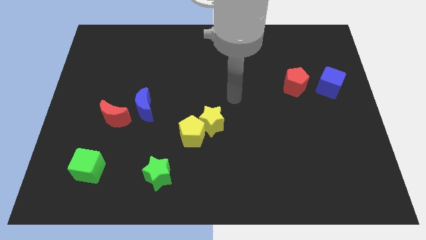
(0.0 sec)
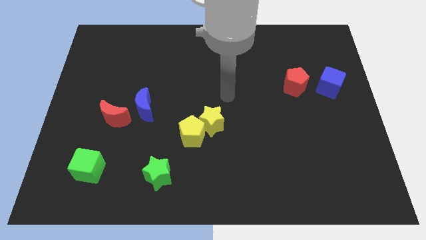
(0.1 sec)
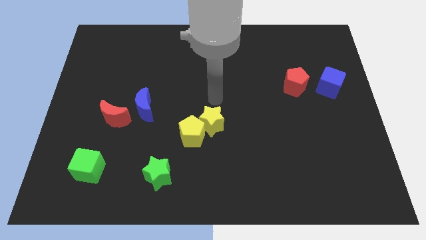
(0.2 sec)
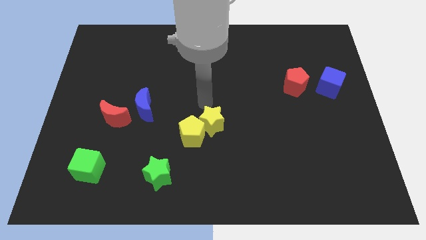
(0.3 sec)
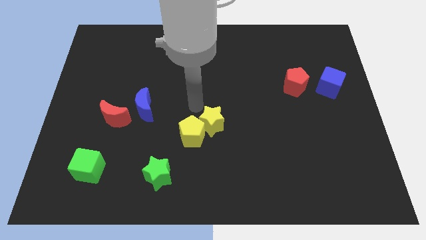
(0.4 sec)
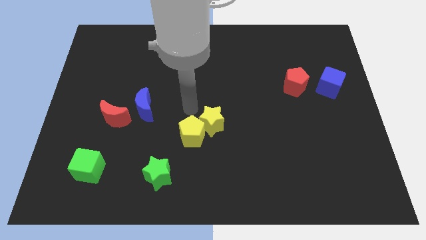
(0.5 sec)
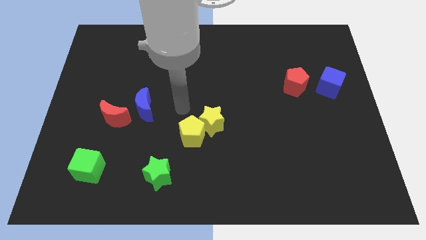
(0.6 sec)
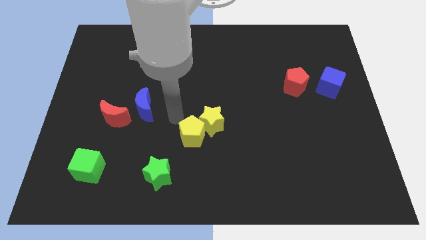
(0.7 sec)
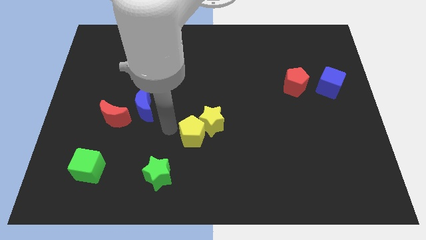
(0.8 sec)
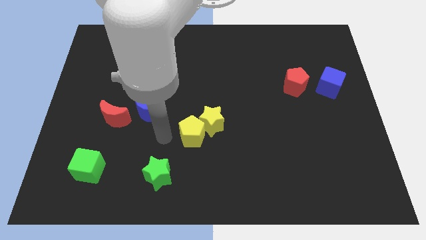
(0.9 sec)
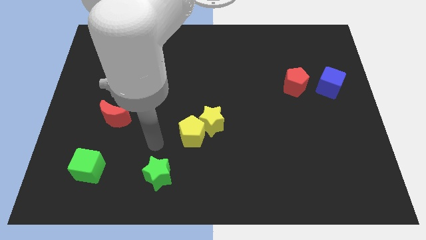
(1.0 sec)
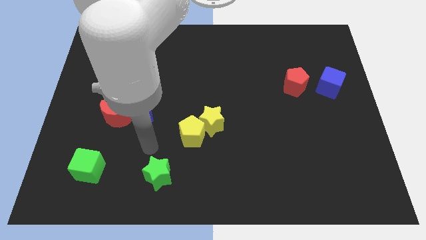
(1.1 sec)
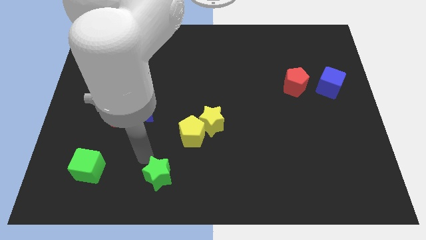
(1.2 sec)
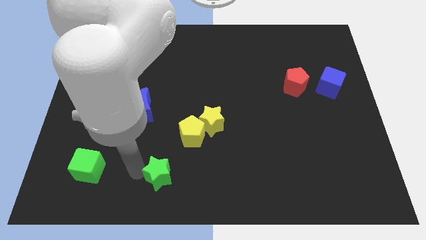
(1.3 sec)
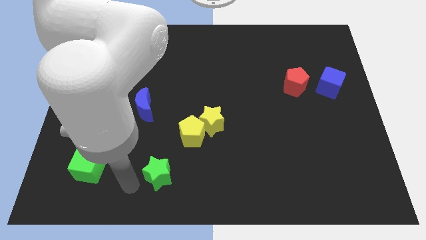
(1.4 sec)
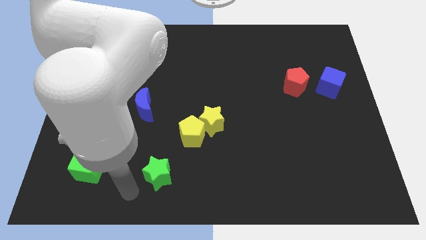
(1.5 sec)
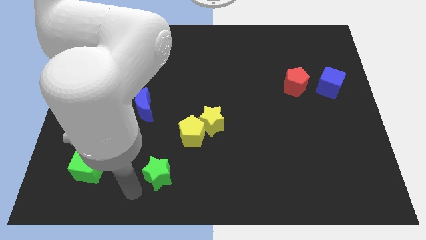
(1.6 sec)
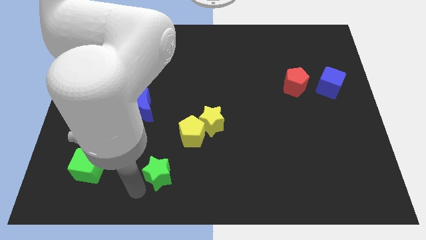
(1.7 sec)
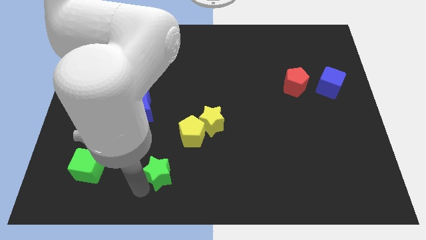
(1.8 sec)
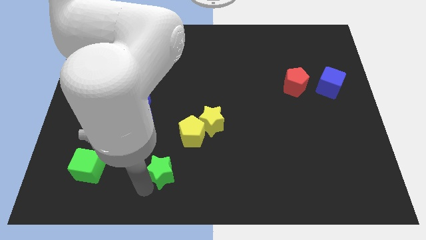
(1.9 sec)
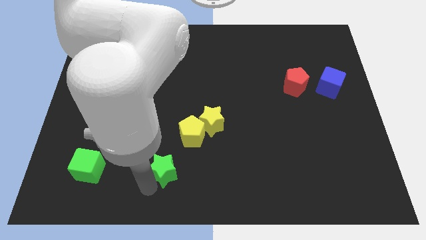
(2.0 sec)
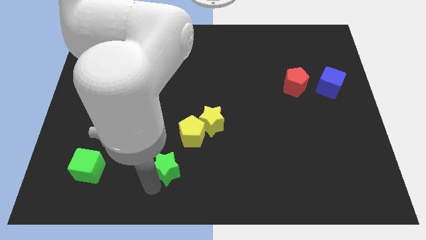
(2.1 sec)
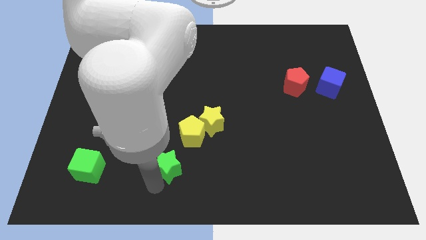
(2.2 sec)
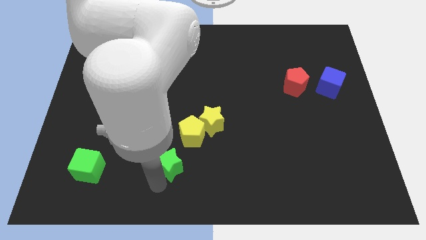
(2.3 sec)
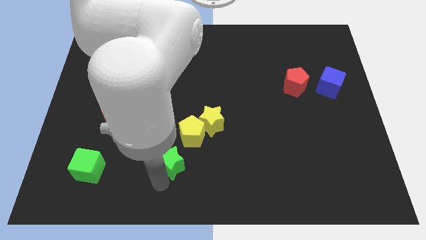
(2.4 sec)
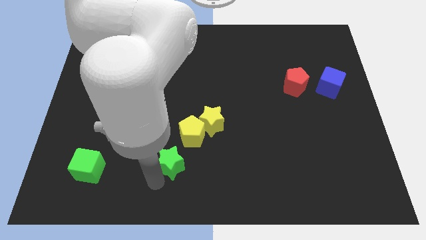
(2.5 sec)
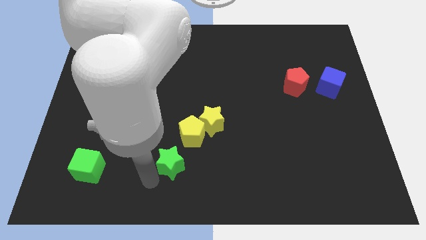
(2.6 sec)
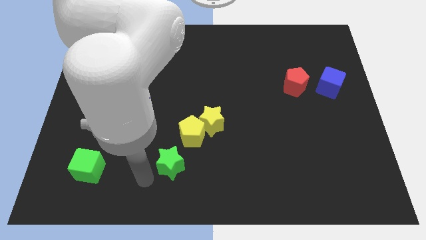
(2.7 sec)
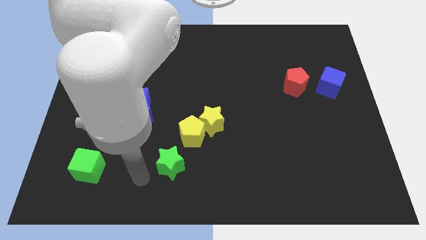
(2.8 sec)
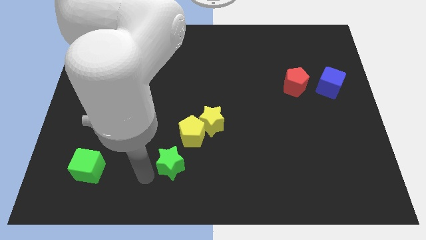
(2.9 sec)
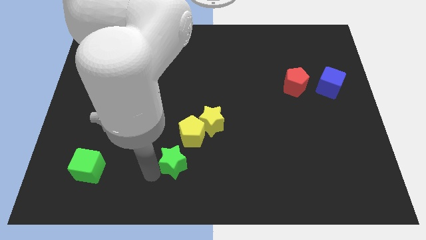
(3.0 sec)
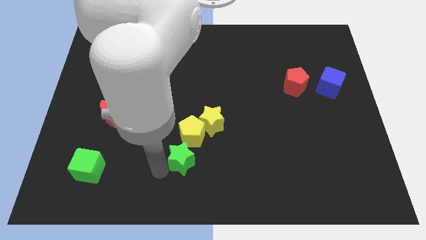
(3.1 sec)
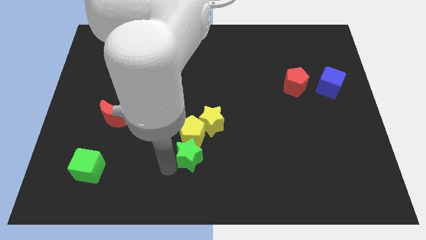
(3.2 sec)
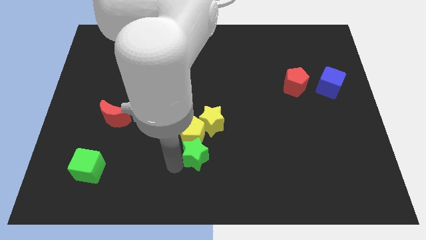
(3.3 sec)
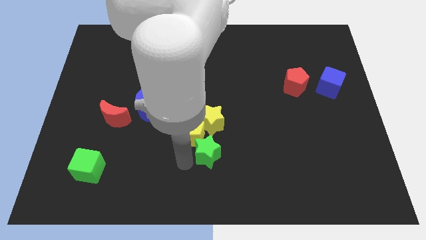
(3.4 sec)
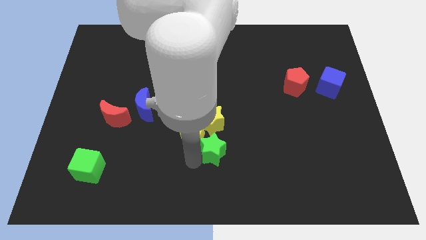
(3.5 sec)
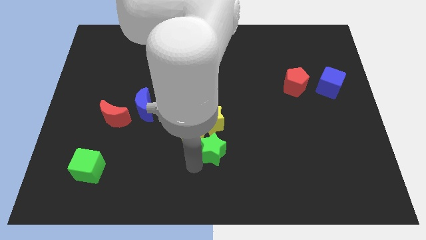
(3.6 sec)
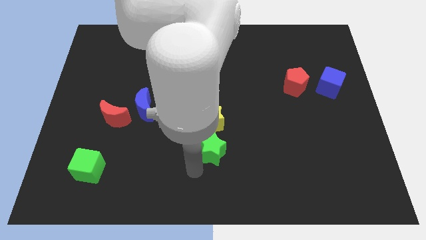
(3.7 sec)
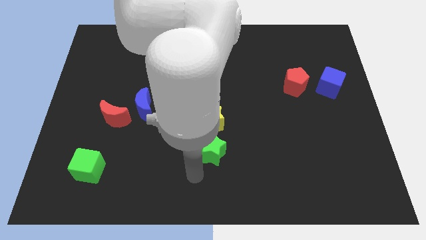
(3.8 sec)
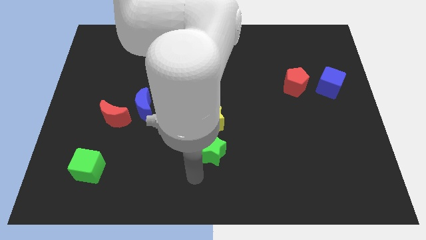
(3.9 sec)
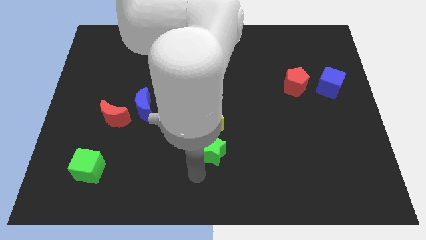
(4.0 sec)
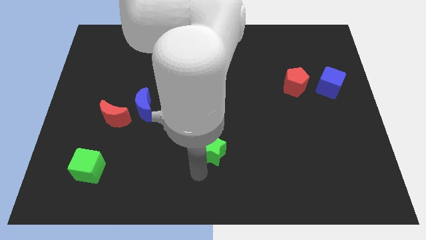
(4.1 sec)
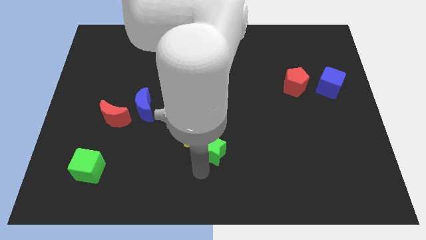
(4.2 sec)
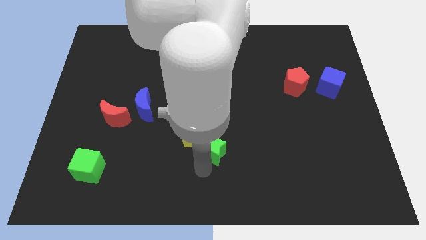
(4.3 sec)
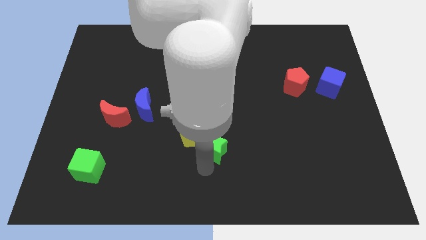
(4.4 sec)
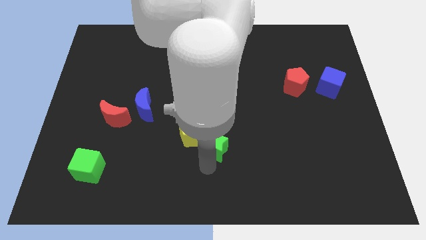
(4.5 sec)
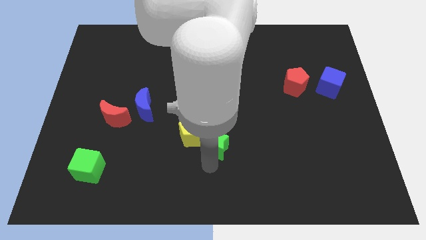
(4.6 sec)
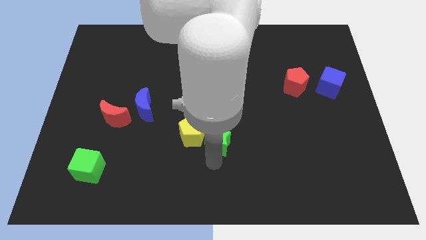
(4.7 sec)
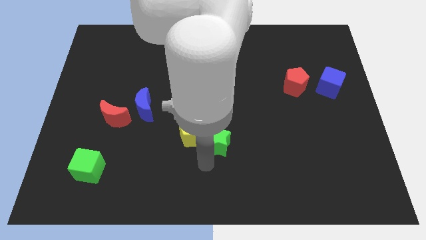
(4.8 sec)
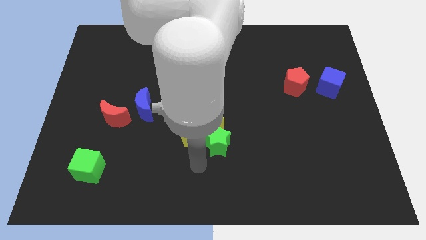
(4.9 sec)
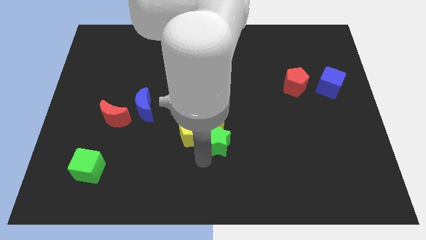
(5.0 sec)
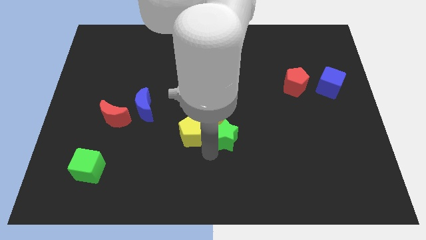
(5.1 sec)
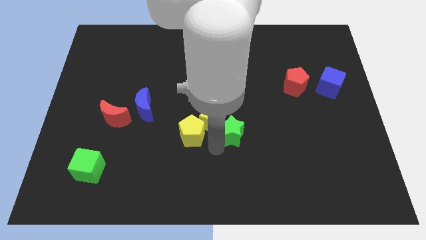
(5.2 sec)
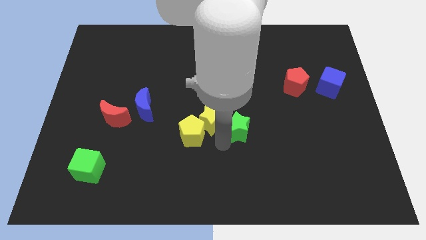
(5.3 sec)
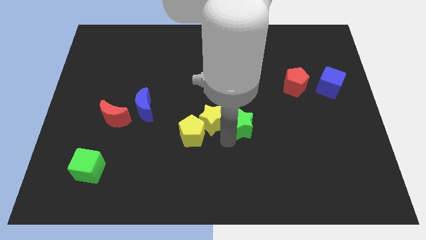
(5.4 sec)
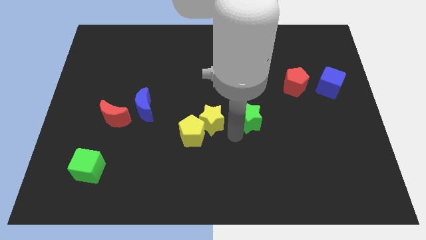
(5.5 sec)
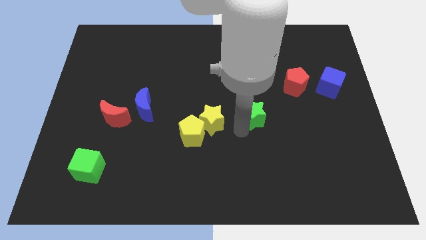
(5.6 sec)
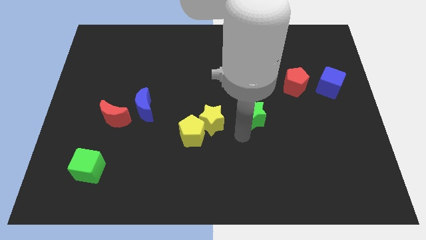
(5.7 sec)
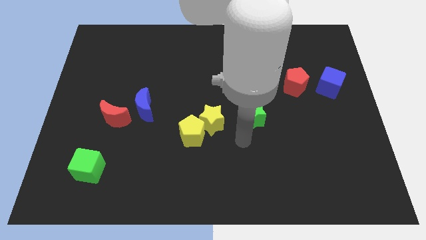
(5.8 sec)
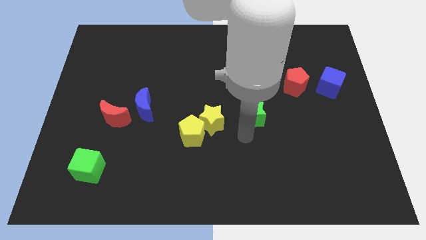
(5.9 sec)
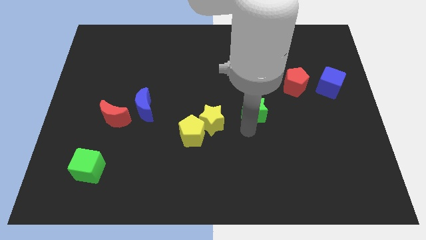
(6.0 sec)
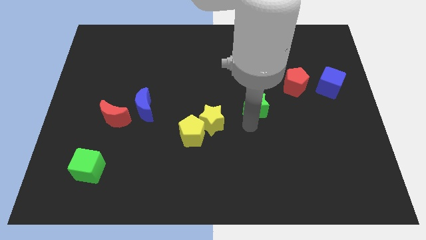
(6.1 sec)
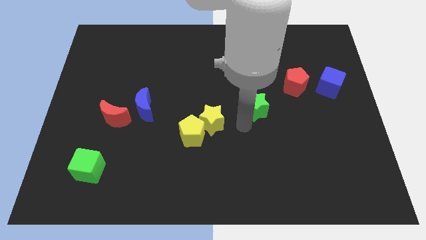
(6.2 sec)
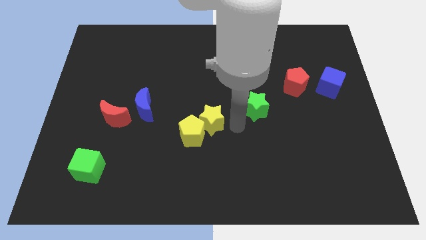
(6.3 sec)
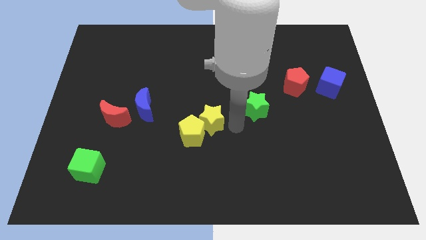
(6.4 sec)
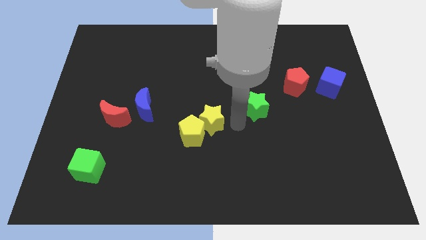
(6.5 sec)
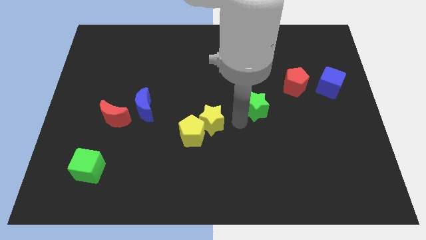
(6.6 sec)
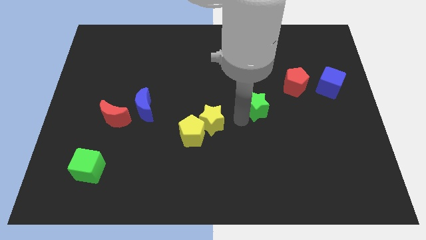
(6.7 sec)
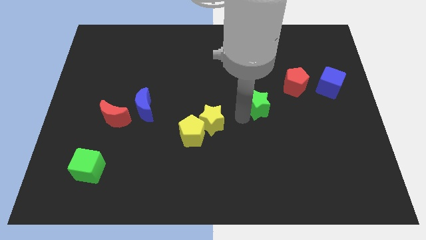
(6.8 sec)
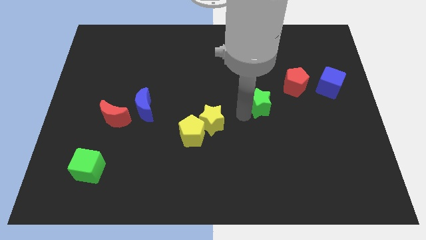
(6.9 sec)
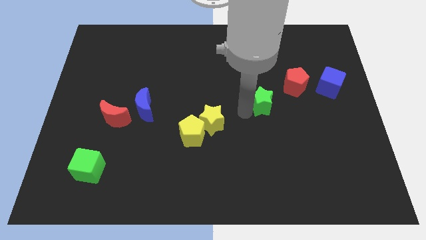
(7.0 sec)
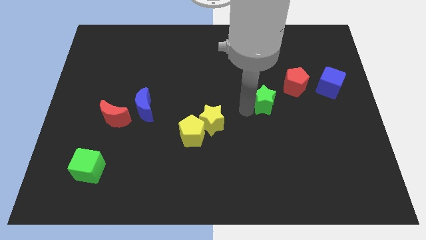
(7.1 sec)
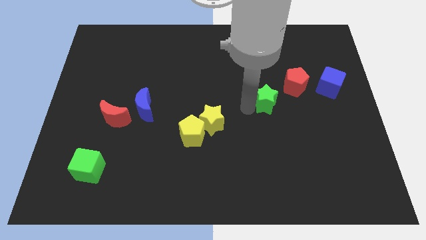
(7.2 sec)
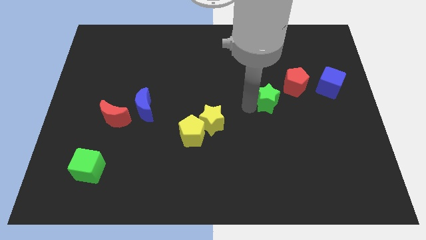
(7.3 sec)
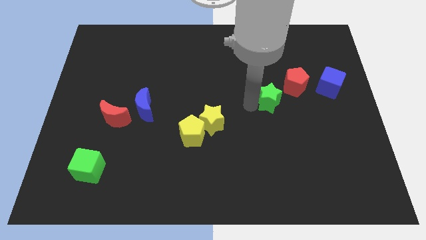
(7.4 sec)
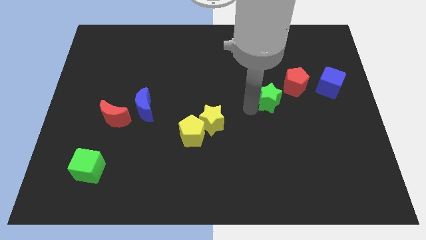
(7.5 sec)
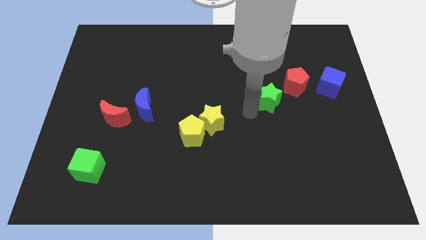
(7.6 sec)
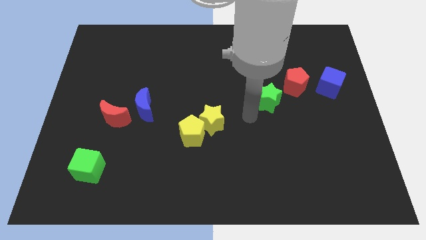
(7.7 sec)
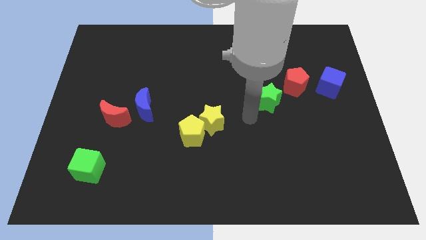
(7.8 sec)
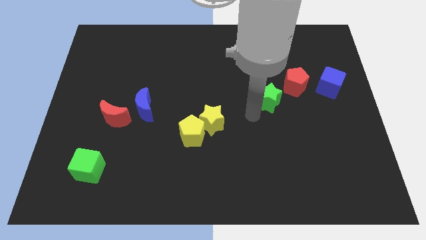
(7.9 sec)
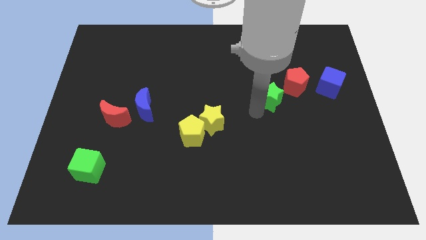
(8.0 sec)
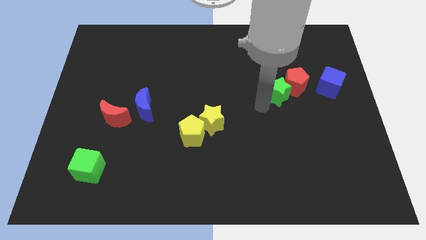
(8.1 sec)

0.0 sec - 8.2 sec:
put the green star close to the red pentagon
